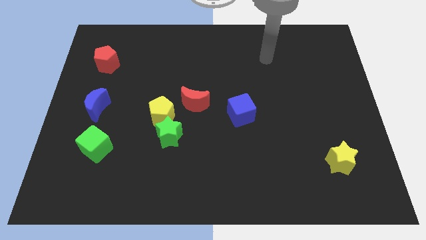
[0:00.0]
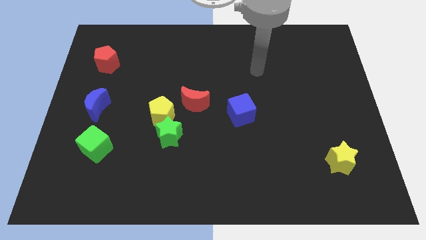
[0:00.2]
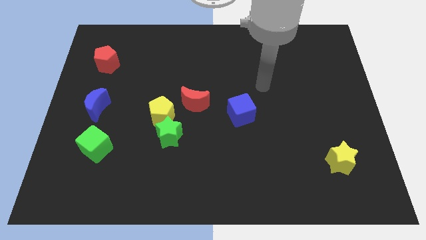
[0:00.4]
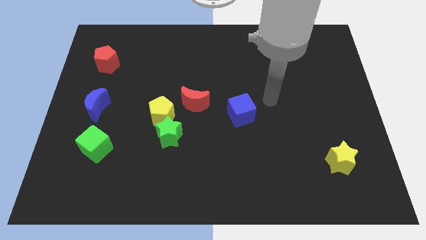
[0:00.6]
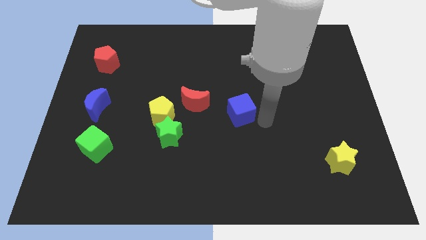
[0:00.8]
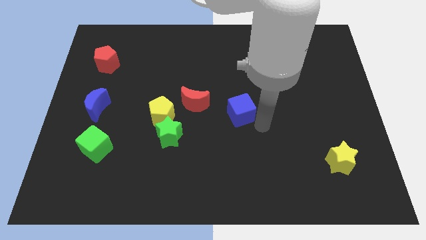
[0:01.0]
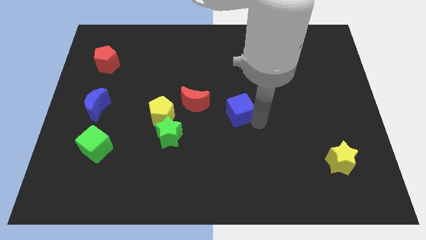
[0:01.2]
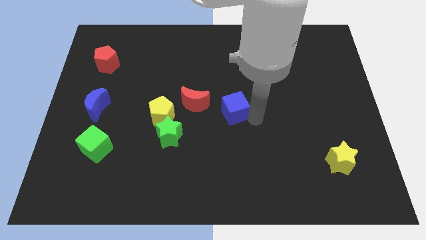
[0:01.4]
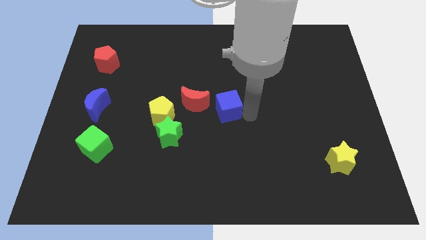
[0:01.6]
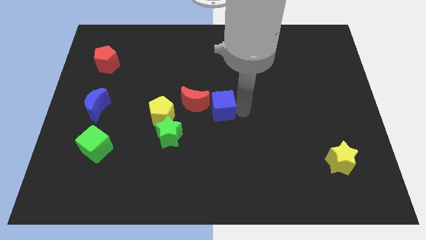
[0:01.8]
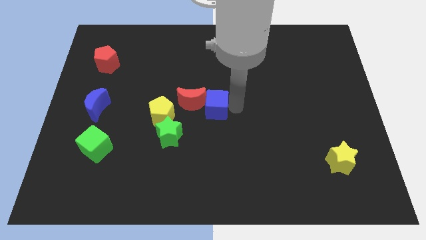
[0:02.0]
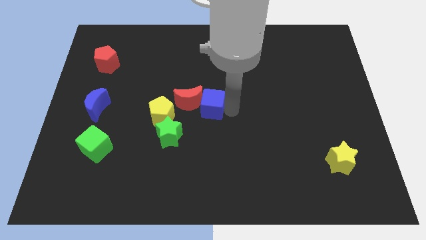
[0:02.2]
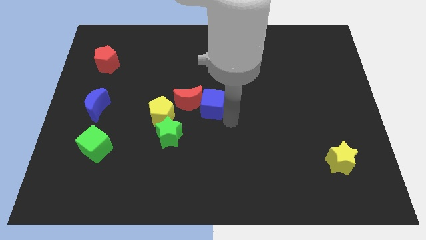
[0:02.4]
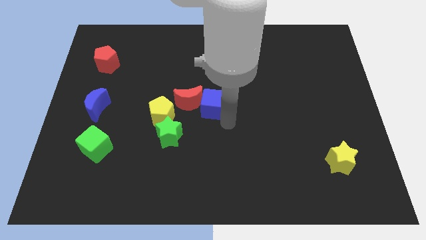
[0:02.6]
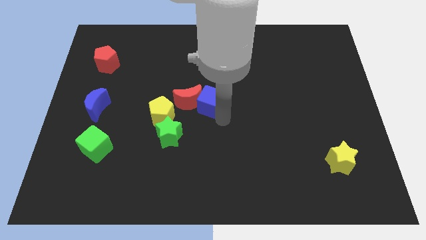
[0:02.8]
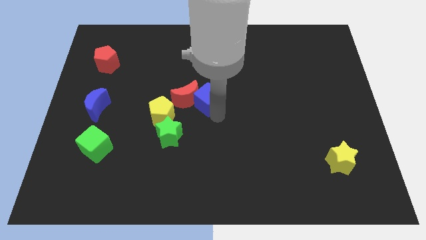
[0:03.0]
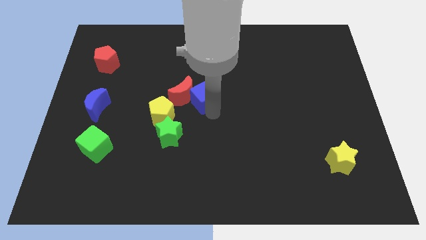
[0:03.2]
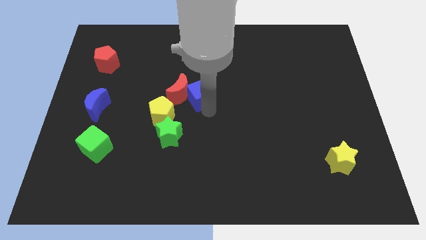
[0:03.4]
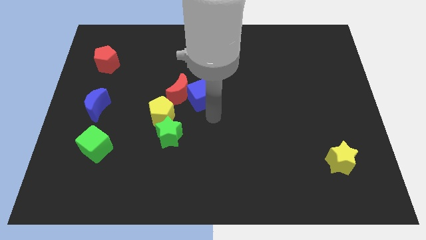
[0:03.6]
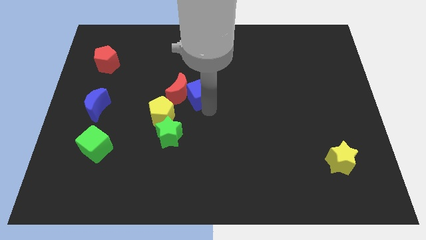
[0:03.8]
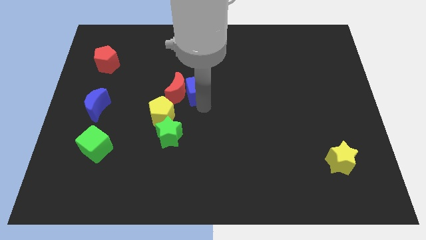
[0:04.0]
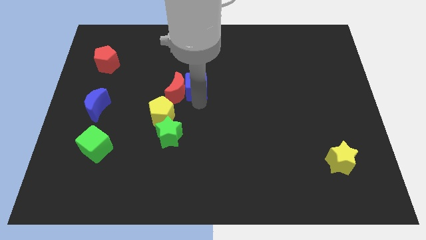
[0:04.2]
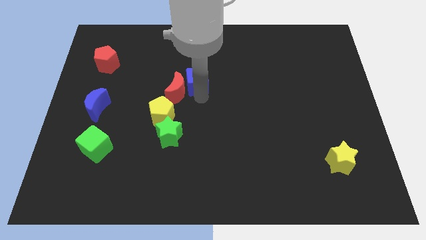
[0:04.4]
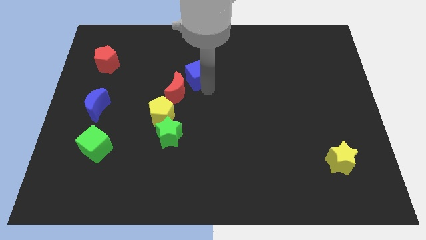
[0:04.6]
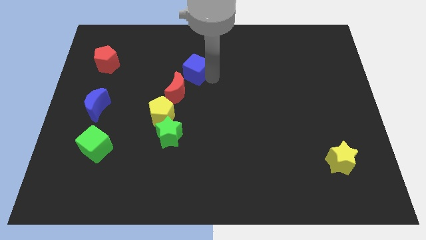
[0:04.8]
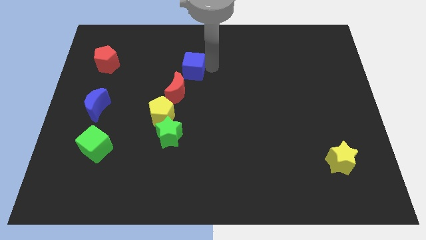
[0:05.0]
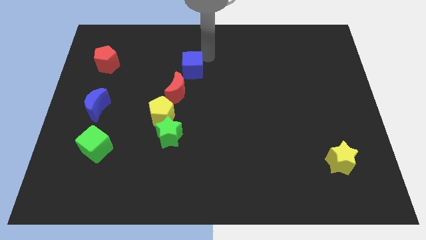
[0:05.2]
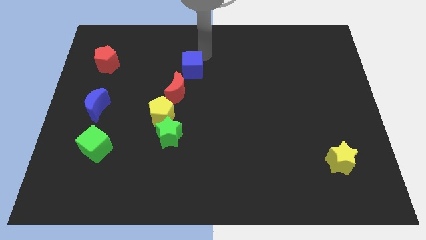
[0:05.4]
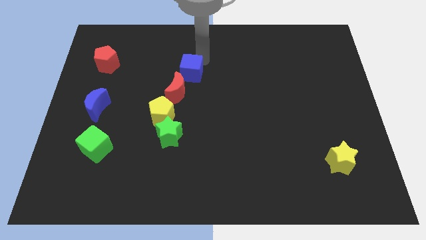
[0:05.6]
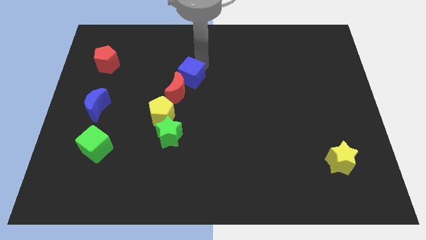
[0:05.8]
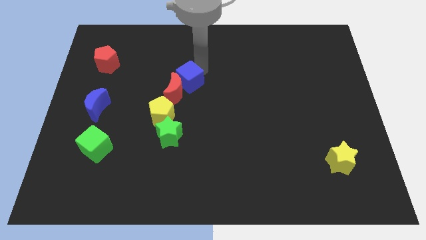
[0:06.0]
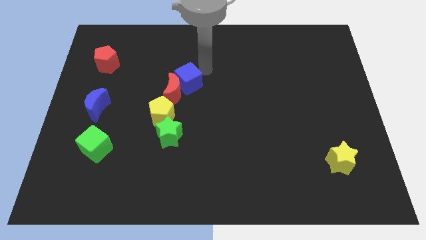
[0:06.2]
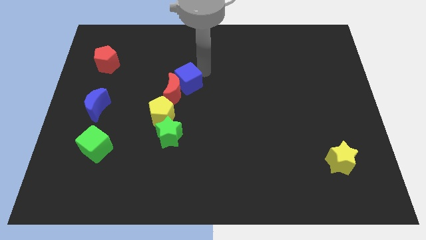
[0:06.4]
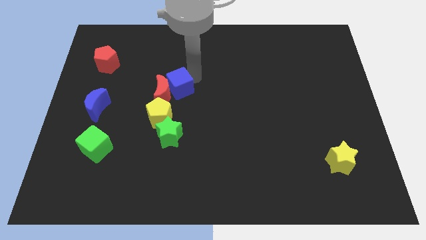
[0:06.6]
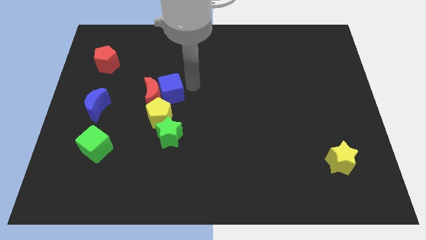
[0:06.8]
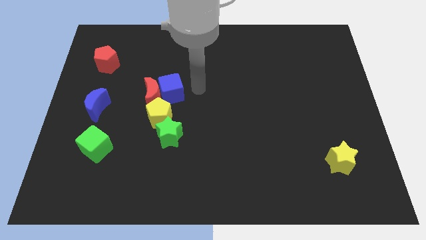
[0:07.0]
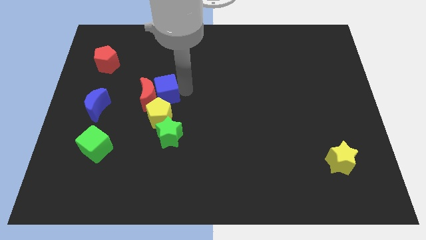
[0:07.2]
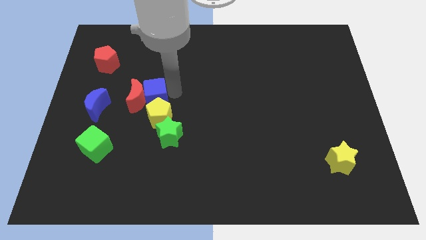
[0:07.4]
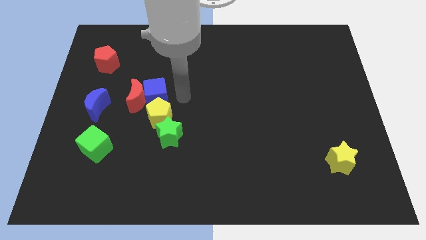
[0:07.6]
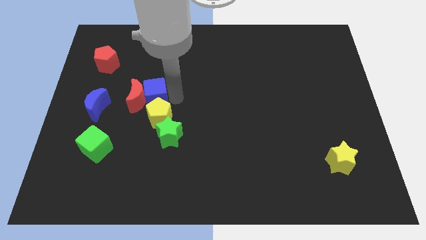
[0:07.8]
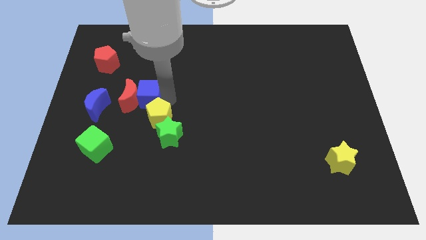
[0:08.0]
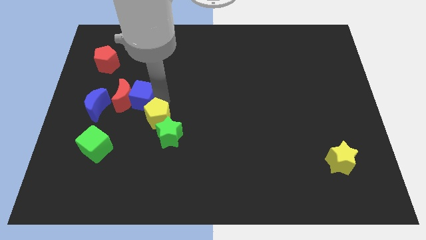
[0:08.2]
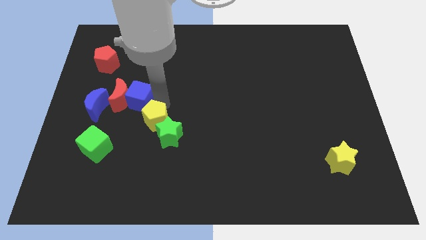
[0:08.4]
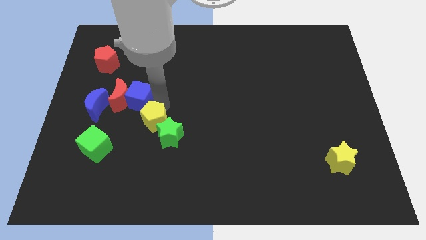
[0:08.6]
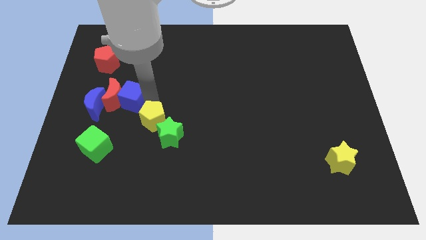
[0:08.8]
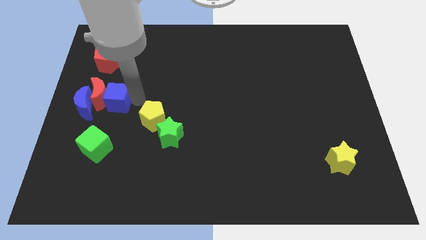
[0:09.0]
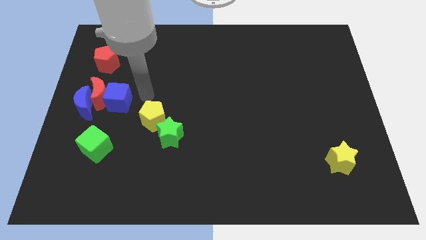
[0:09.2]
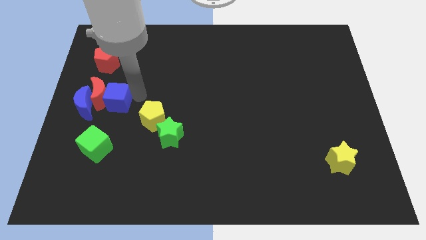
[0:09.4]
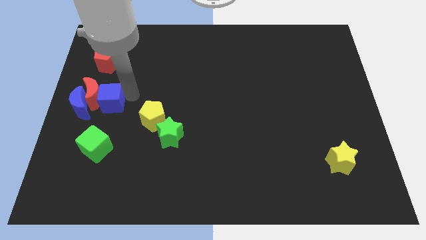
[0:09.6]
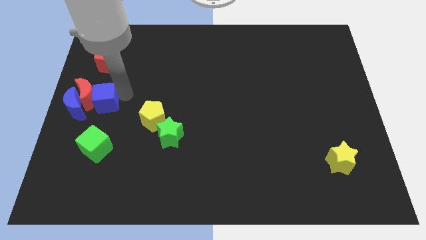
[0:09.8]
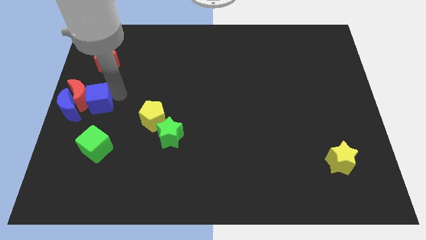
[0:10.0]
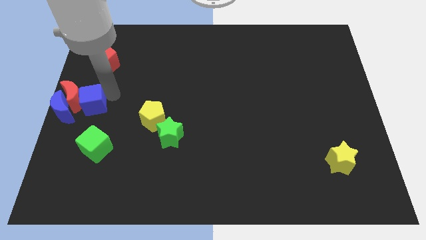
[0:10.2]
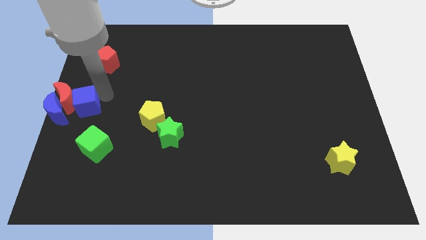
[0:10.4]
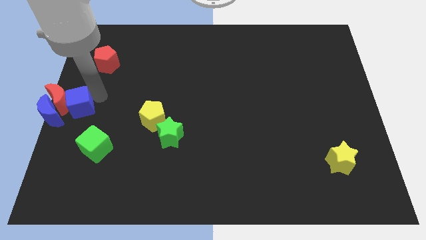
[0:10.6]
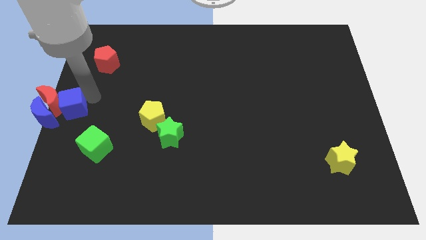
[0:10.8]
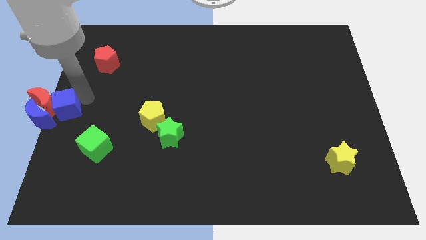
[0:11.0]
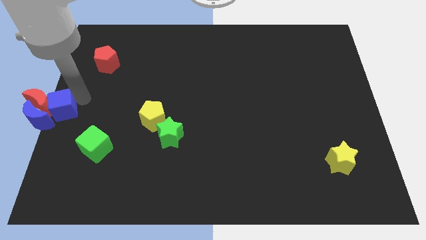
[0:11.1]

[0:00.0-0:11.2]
slide the blue cube next to the blue moon

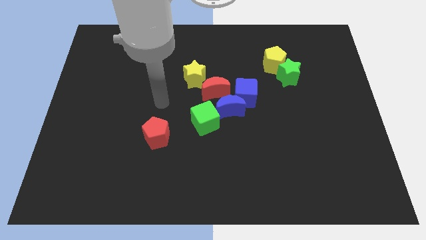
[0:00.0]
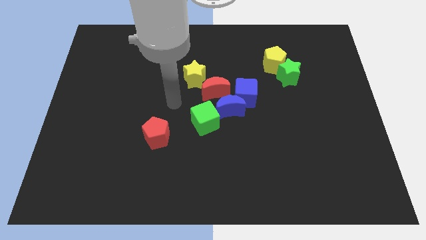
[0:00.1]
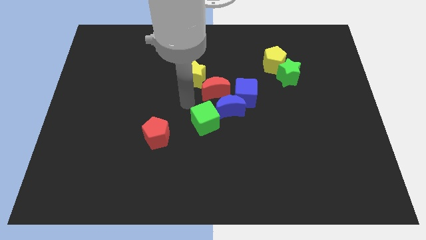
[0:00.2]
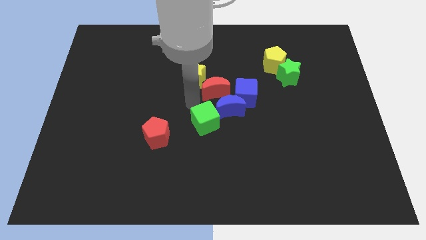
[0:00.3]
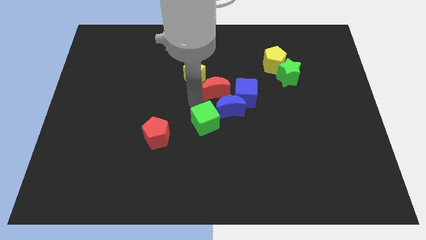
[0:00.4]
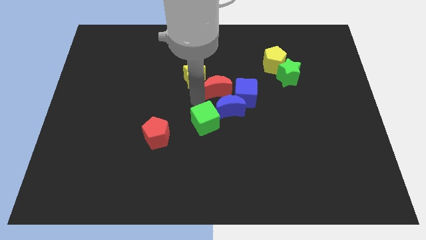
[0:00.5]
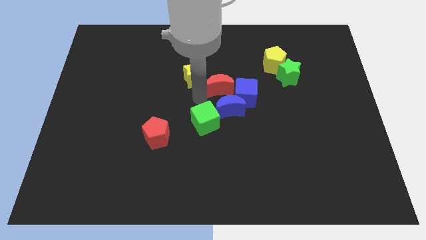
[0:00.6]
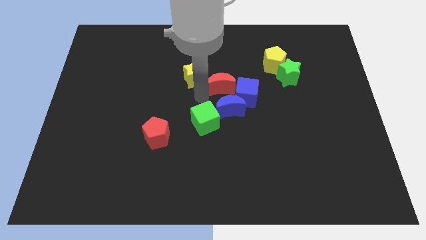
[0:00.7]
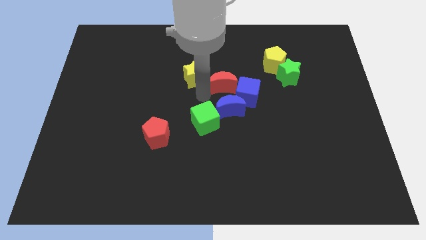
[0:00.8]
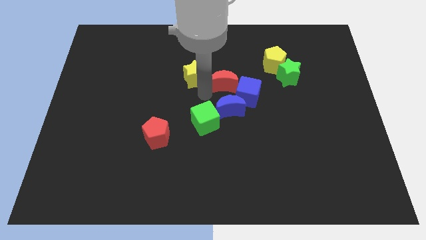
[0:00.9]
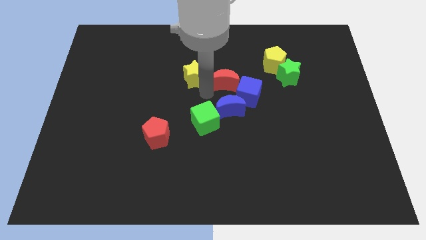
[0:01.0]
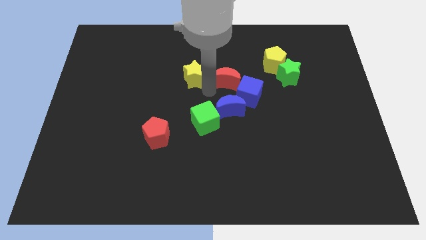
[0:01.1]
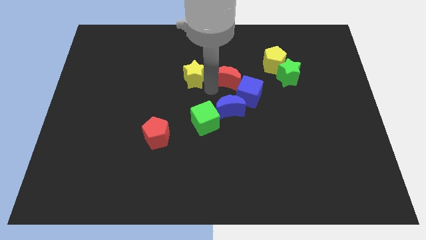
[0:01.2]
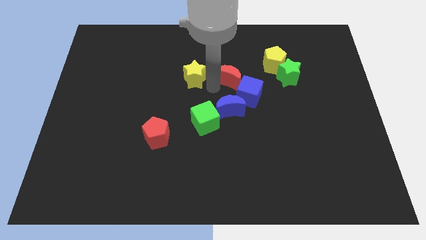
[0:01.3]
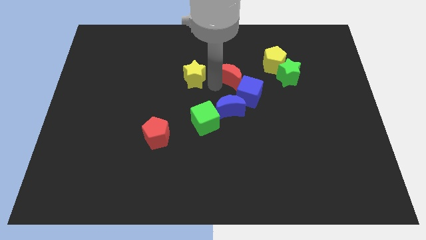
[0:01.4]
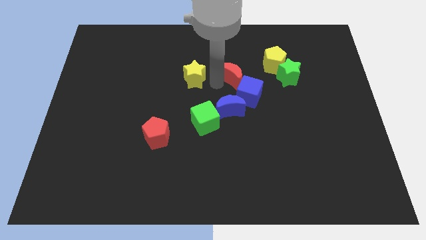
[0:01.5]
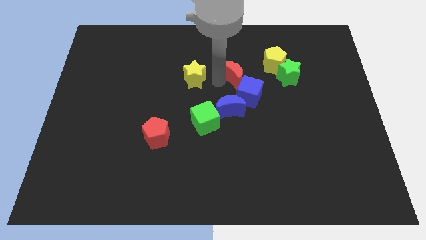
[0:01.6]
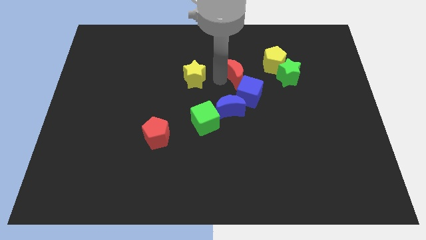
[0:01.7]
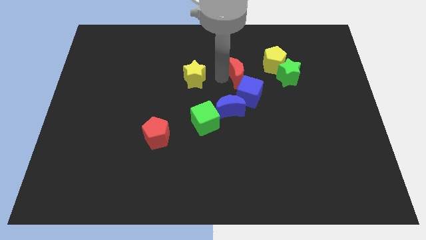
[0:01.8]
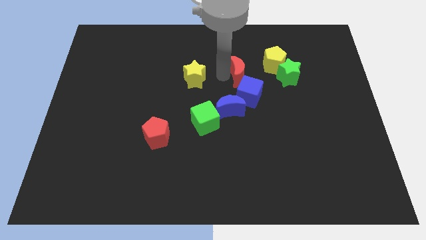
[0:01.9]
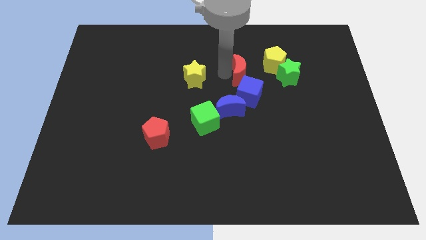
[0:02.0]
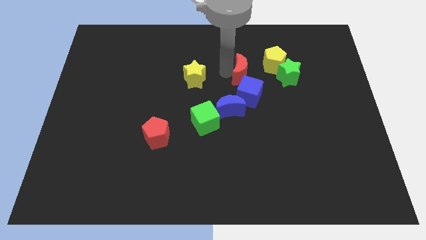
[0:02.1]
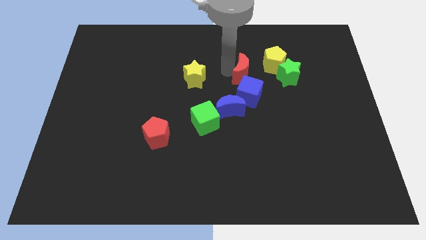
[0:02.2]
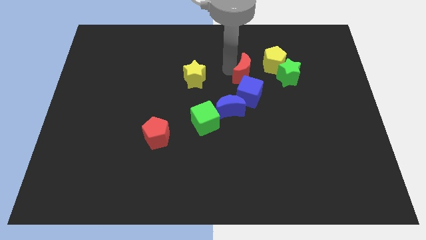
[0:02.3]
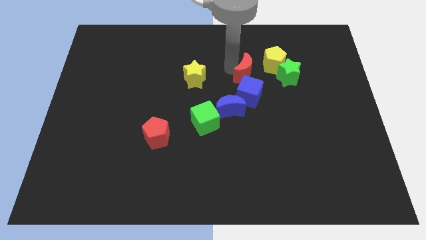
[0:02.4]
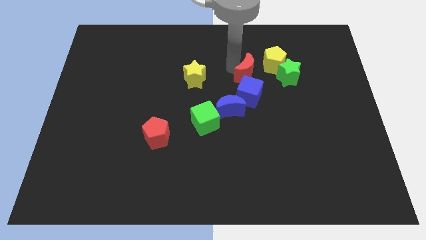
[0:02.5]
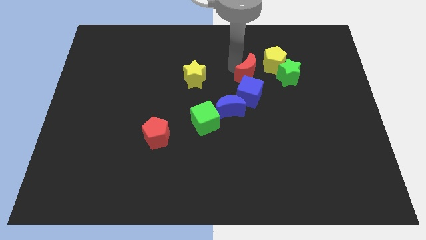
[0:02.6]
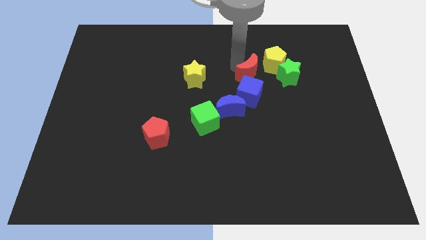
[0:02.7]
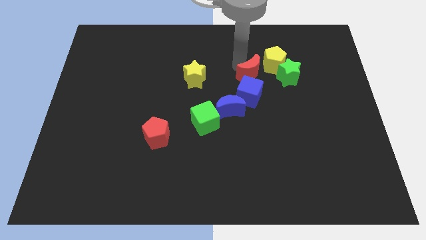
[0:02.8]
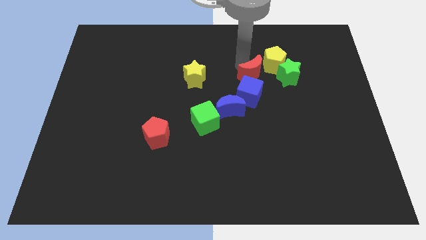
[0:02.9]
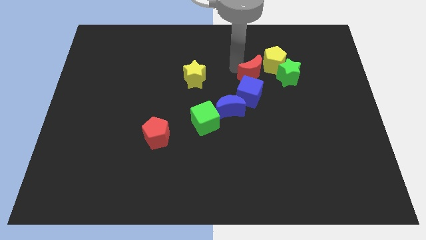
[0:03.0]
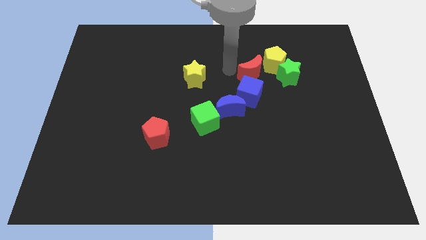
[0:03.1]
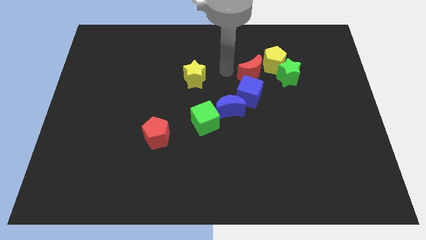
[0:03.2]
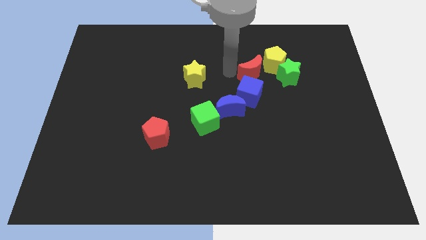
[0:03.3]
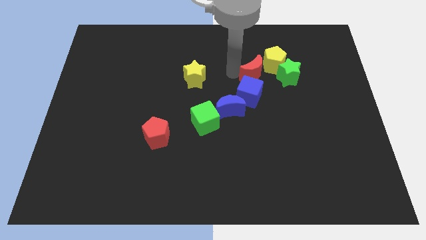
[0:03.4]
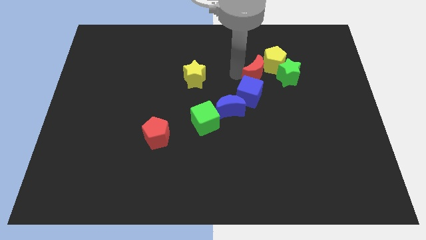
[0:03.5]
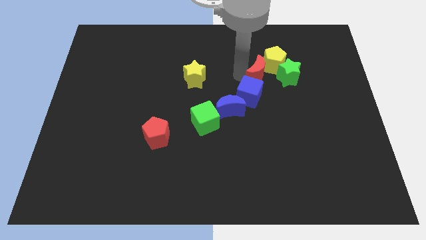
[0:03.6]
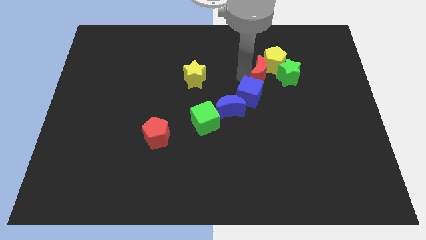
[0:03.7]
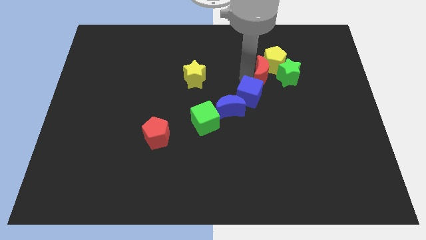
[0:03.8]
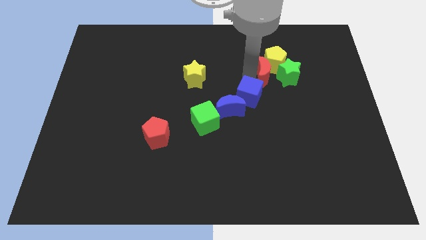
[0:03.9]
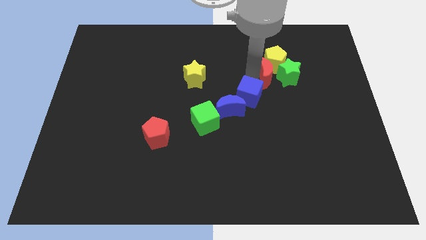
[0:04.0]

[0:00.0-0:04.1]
push the red moon next to the green star
